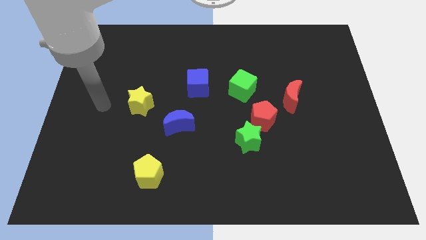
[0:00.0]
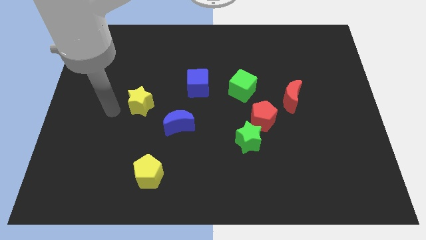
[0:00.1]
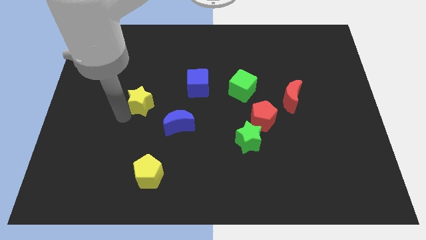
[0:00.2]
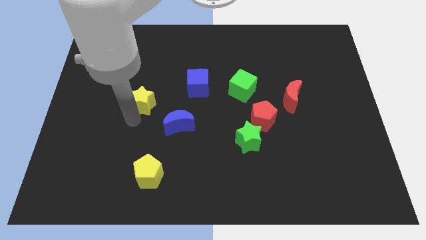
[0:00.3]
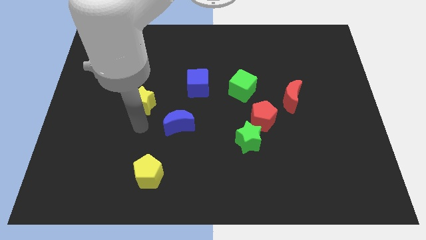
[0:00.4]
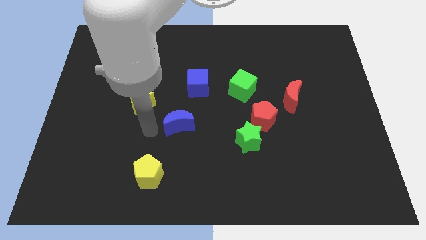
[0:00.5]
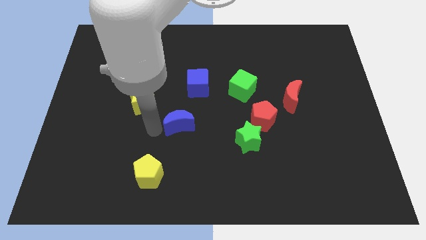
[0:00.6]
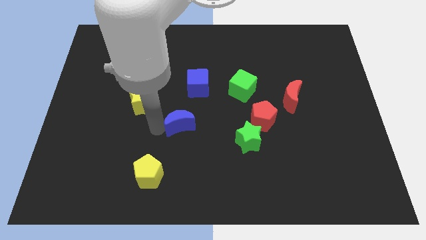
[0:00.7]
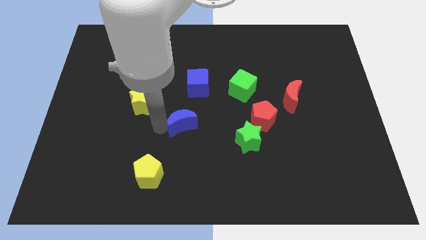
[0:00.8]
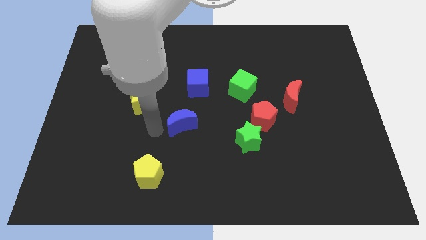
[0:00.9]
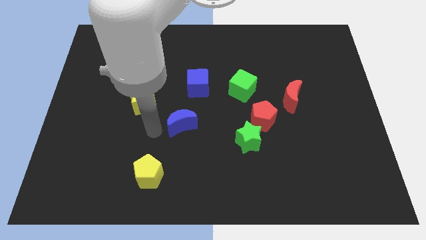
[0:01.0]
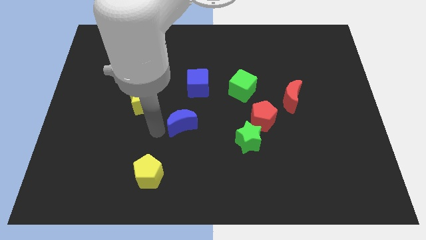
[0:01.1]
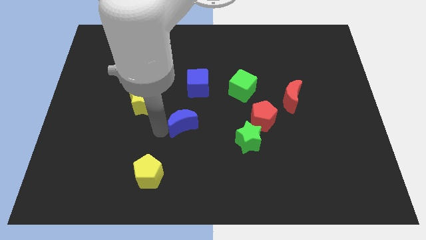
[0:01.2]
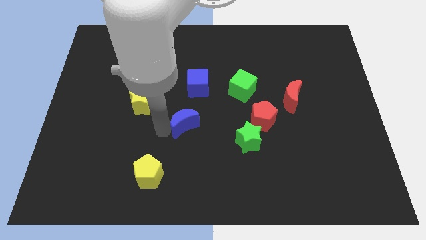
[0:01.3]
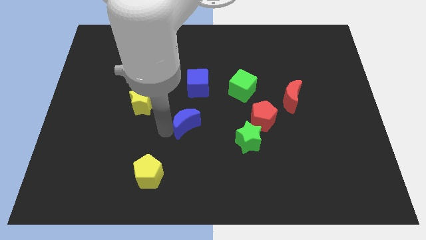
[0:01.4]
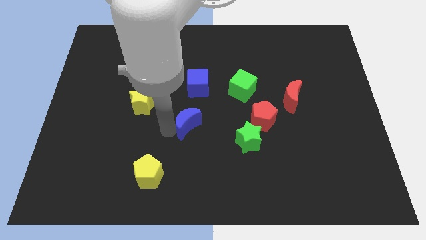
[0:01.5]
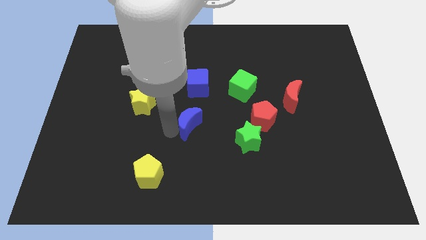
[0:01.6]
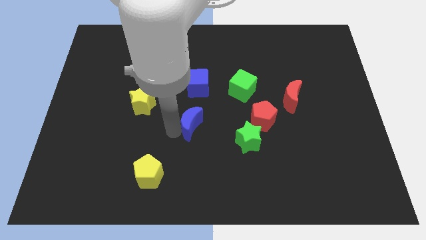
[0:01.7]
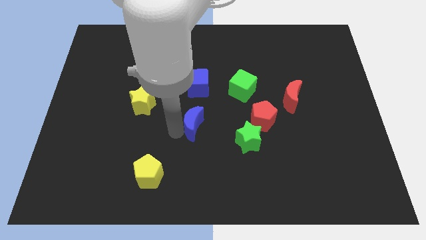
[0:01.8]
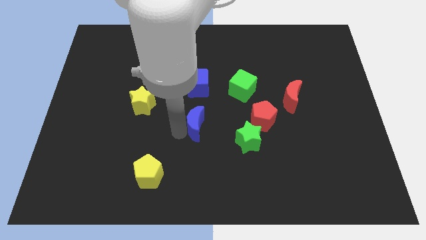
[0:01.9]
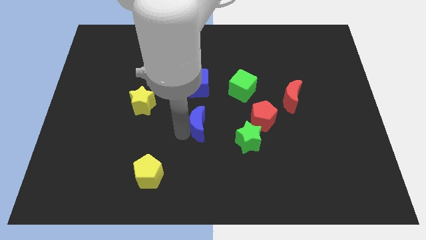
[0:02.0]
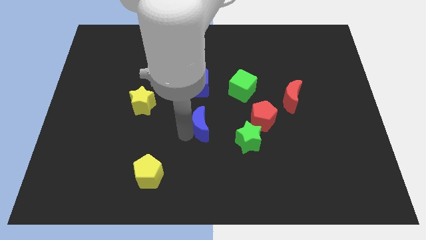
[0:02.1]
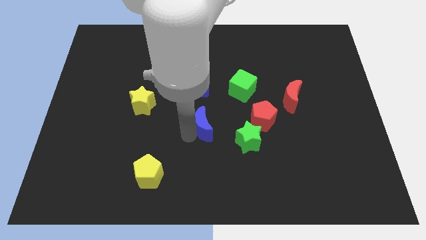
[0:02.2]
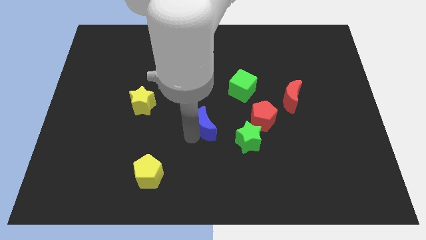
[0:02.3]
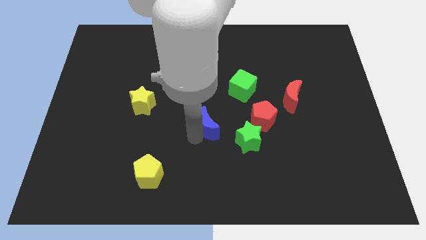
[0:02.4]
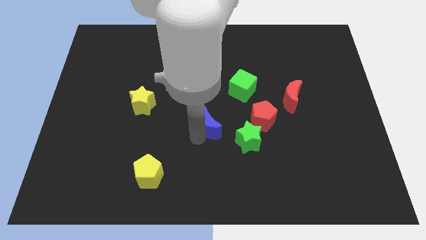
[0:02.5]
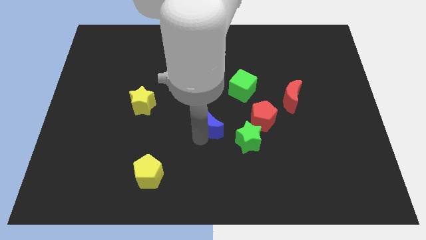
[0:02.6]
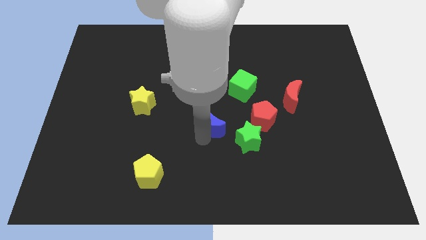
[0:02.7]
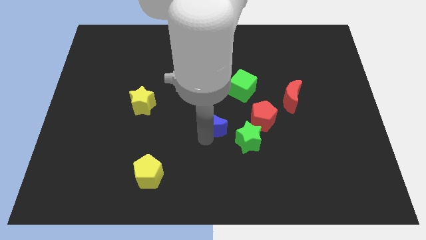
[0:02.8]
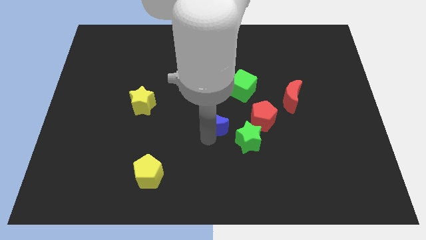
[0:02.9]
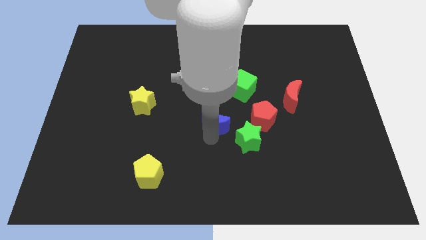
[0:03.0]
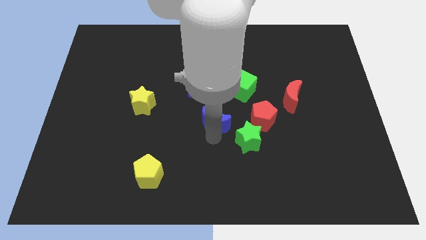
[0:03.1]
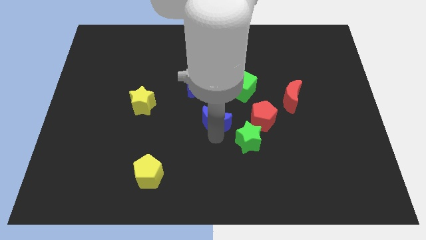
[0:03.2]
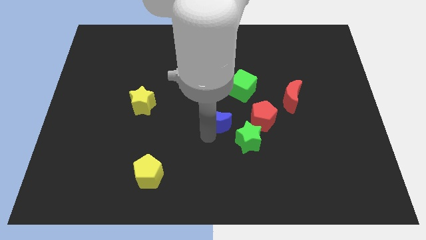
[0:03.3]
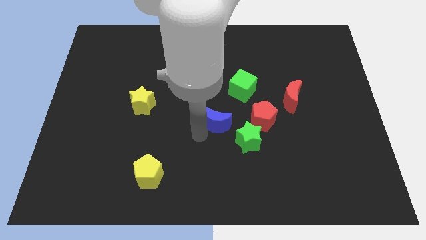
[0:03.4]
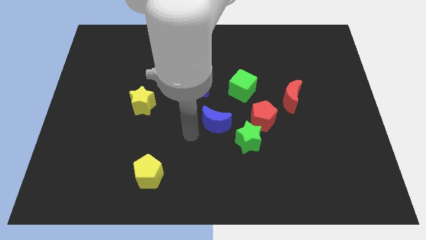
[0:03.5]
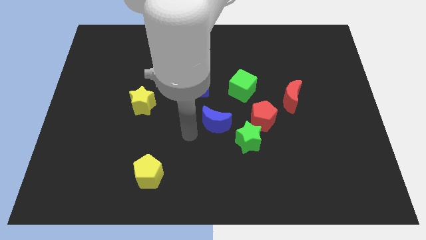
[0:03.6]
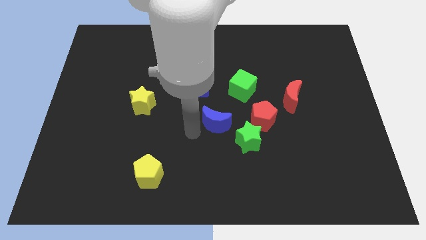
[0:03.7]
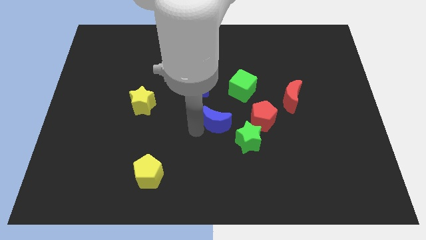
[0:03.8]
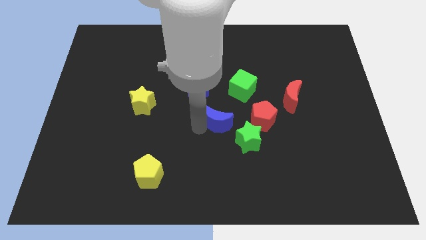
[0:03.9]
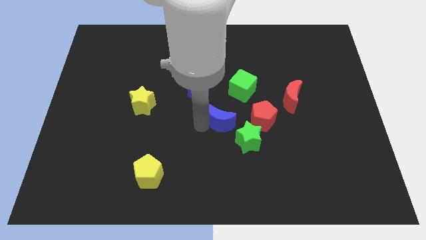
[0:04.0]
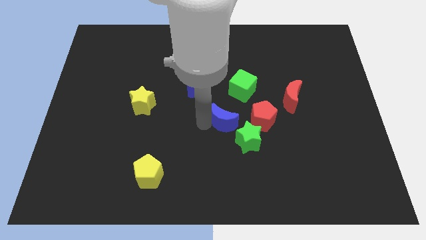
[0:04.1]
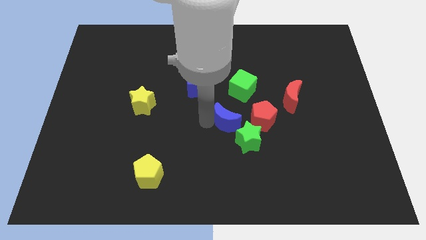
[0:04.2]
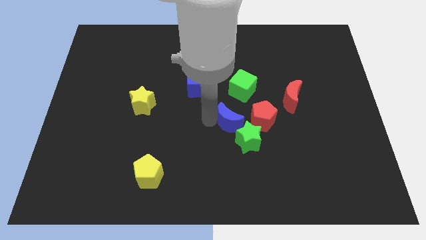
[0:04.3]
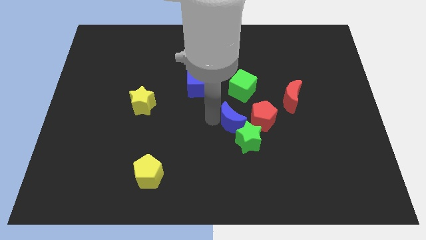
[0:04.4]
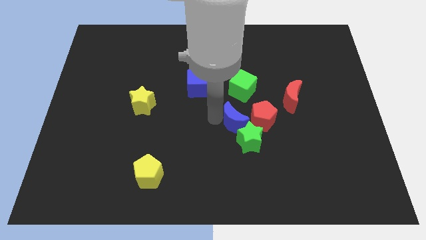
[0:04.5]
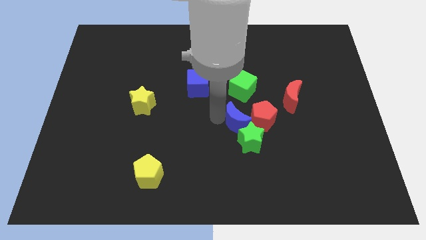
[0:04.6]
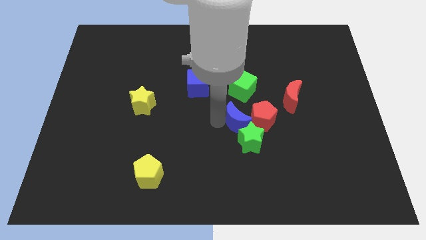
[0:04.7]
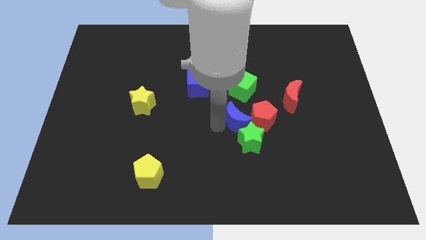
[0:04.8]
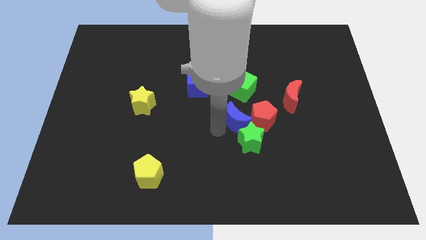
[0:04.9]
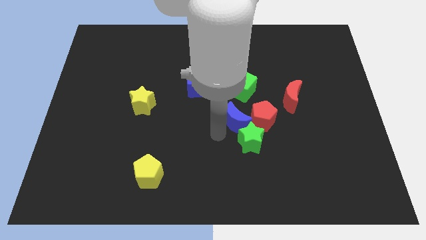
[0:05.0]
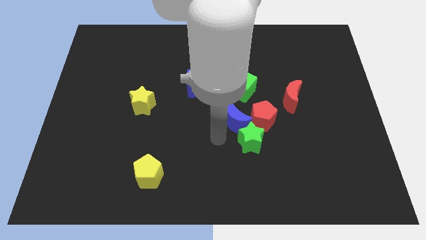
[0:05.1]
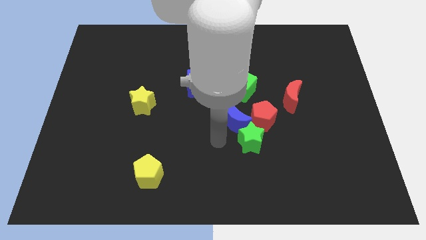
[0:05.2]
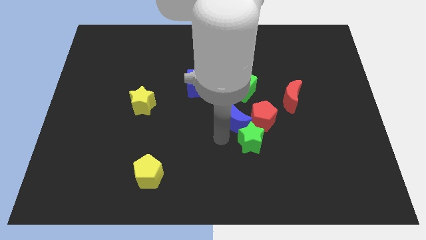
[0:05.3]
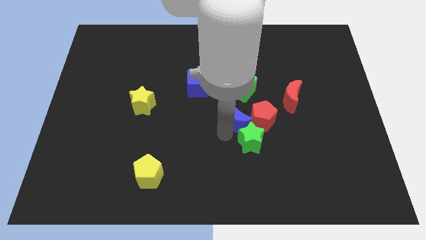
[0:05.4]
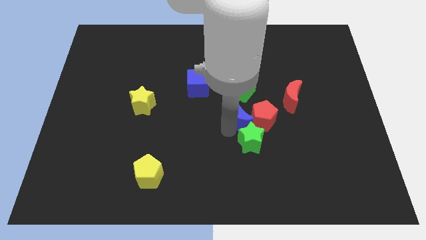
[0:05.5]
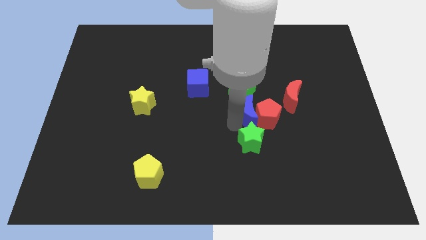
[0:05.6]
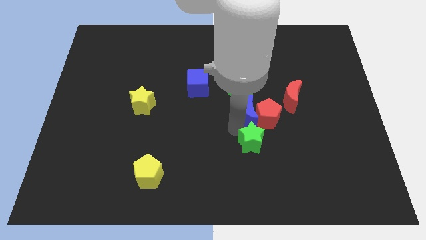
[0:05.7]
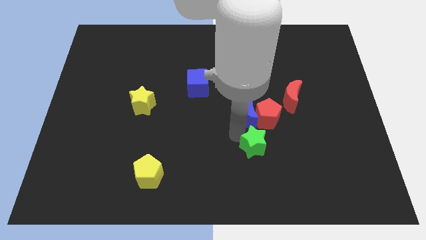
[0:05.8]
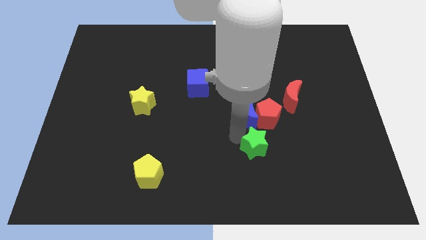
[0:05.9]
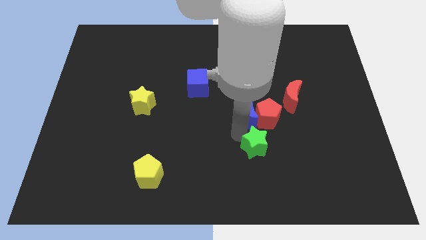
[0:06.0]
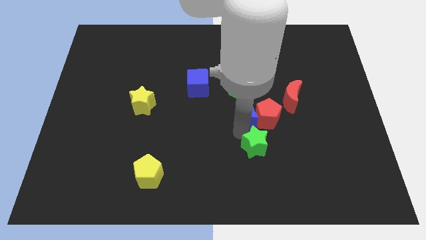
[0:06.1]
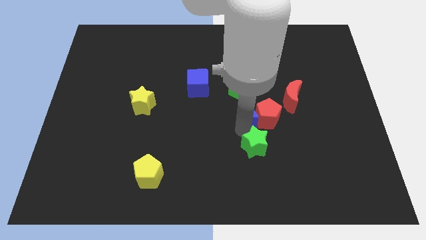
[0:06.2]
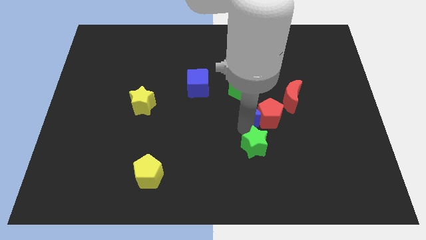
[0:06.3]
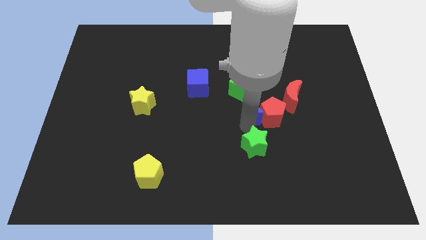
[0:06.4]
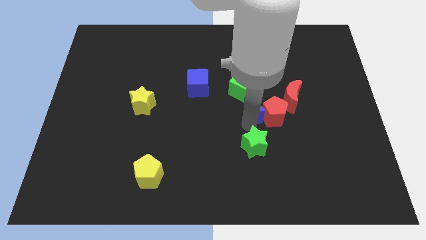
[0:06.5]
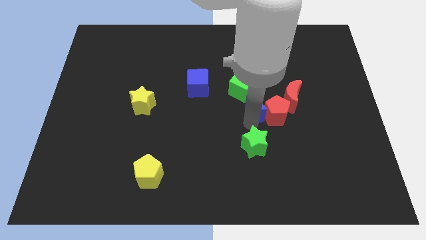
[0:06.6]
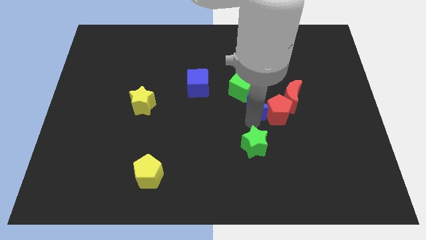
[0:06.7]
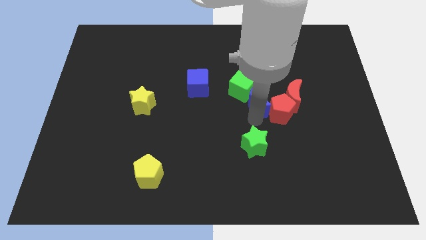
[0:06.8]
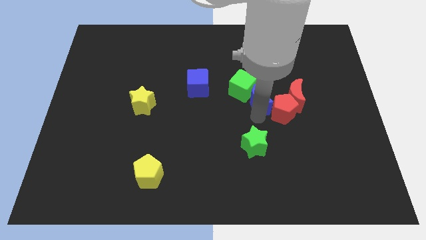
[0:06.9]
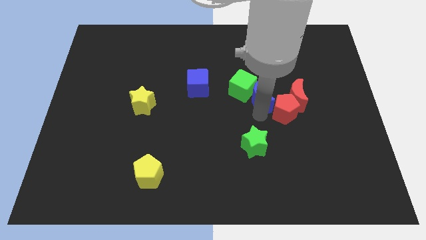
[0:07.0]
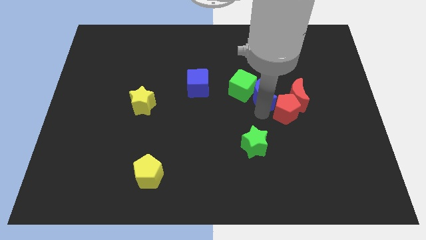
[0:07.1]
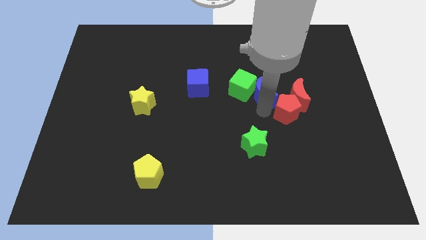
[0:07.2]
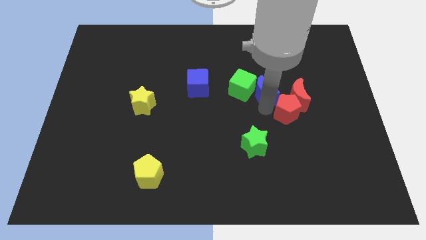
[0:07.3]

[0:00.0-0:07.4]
put the blue moon to the top left of the red moon

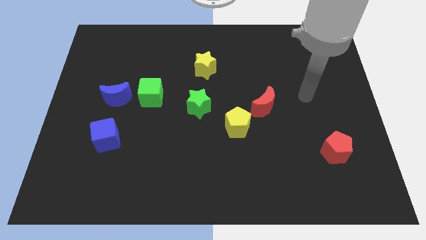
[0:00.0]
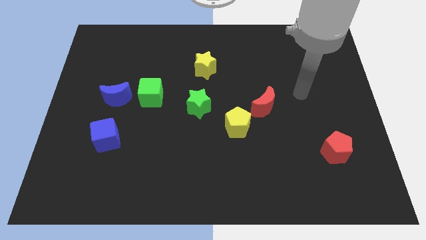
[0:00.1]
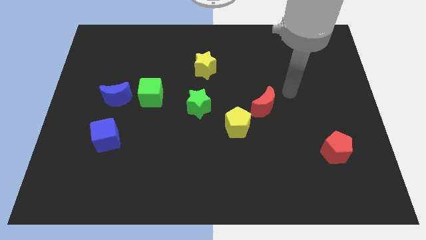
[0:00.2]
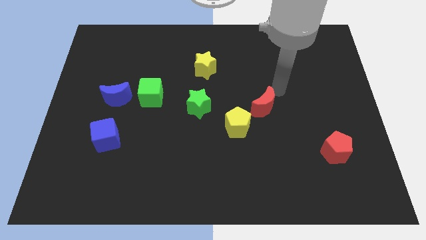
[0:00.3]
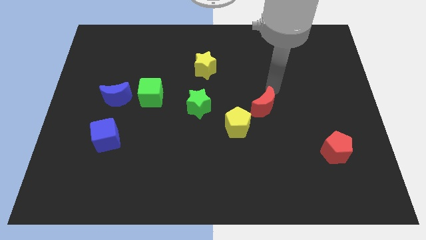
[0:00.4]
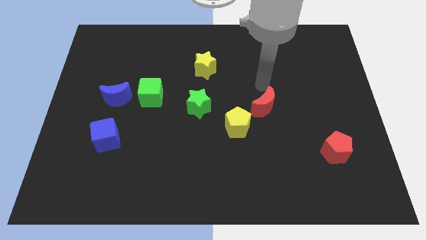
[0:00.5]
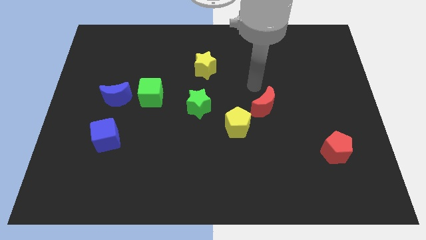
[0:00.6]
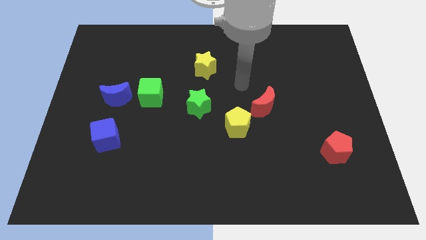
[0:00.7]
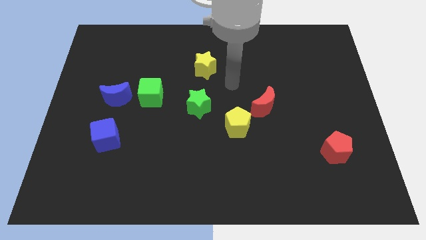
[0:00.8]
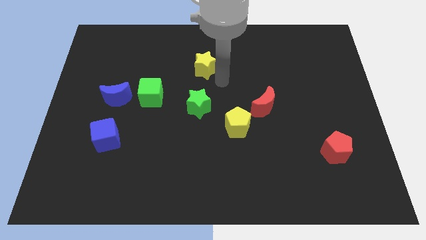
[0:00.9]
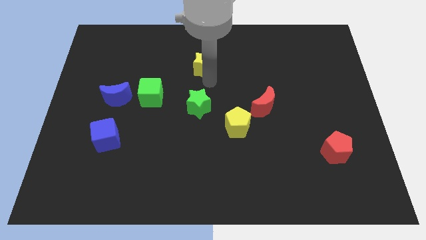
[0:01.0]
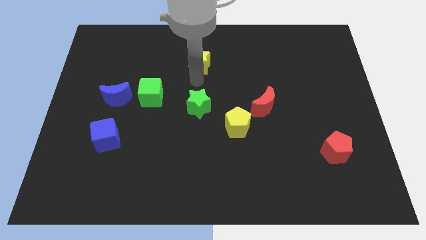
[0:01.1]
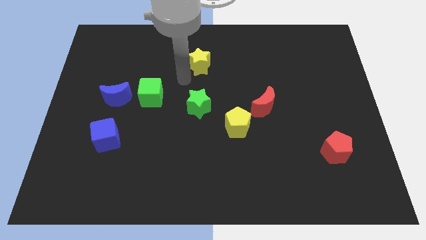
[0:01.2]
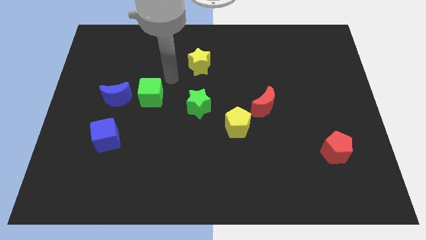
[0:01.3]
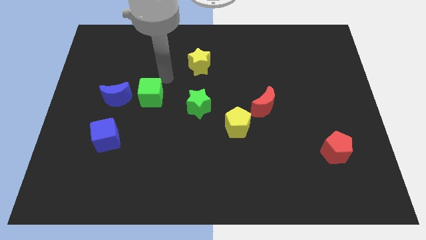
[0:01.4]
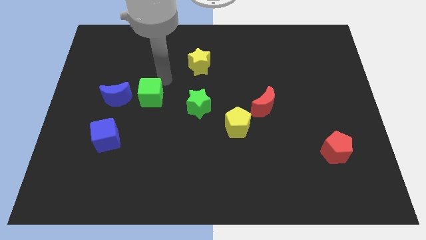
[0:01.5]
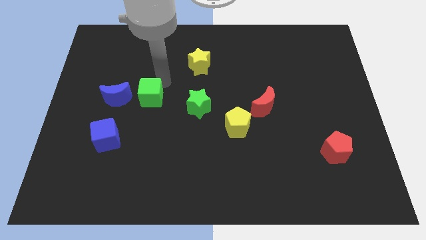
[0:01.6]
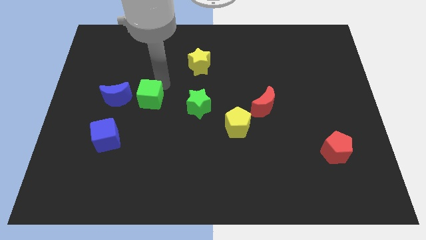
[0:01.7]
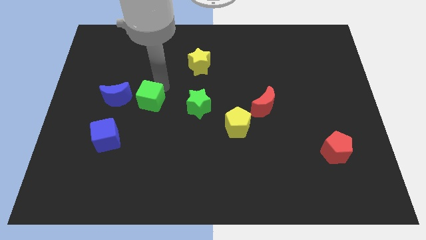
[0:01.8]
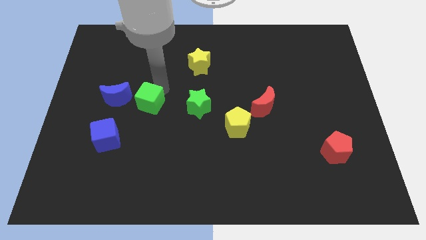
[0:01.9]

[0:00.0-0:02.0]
slide the green cube to the bottom right of the blue moon
